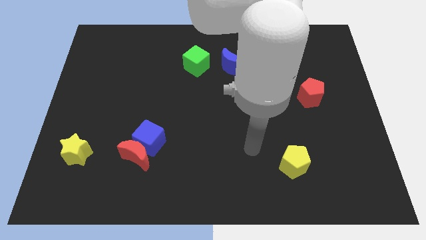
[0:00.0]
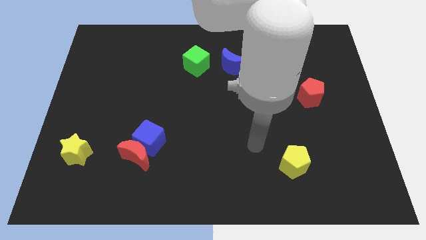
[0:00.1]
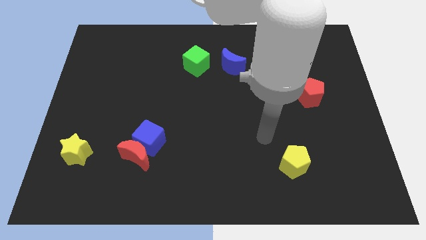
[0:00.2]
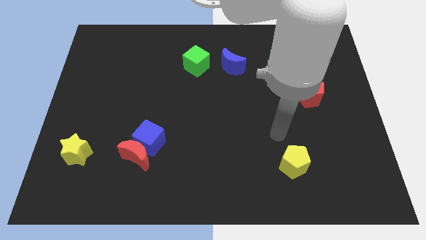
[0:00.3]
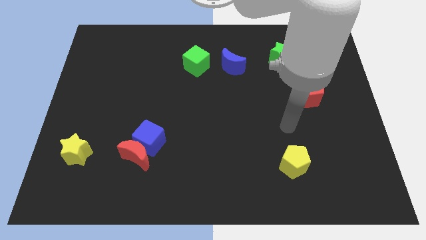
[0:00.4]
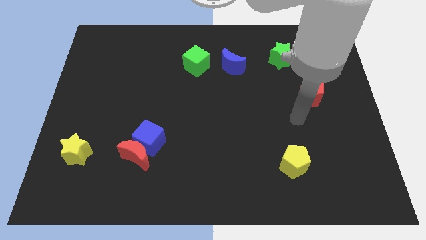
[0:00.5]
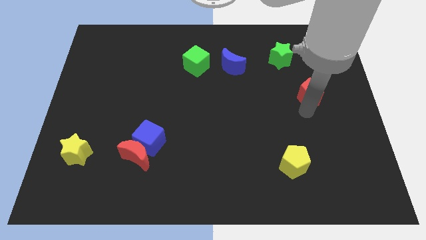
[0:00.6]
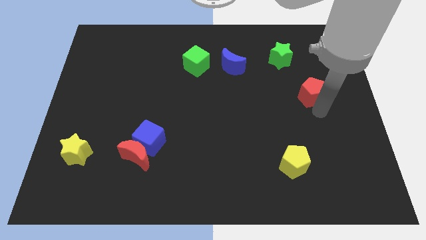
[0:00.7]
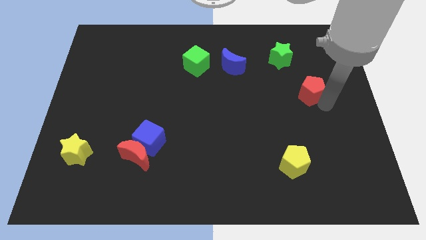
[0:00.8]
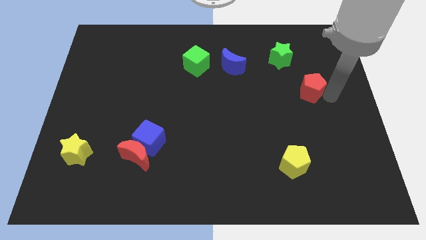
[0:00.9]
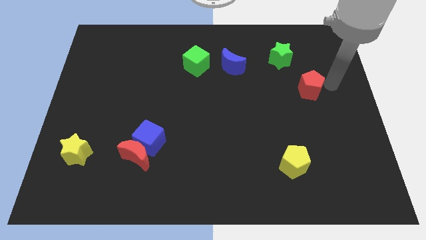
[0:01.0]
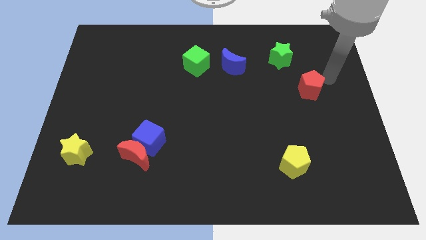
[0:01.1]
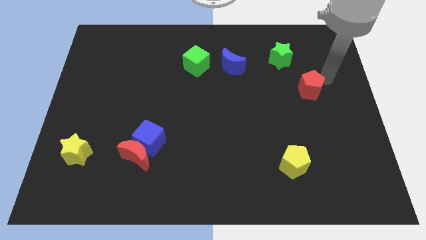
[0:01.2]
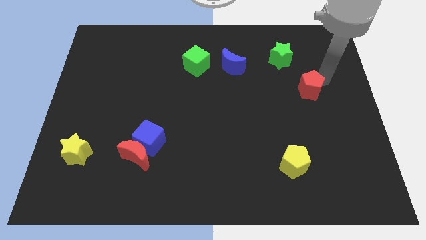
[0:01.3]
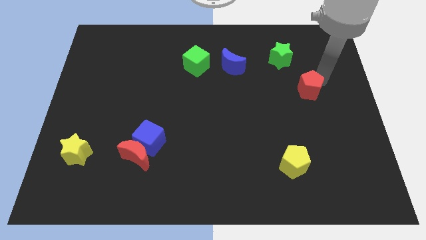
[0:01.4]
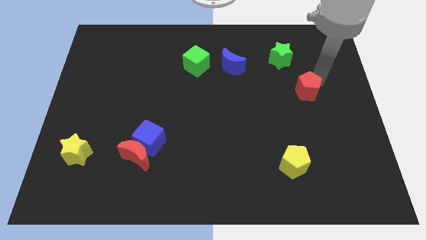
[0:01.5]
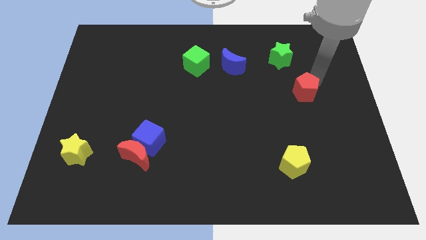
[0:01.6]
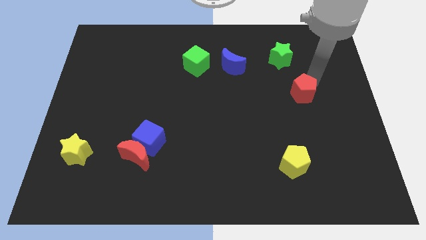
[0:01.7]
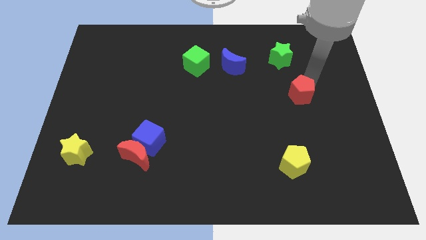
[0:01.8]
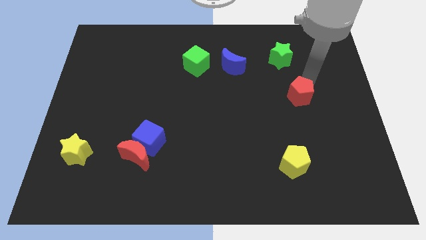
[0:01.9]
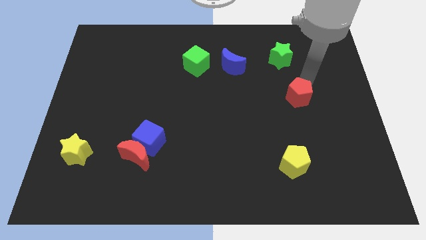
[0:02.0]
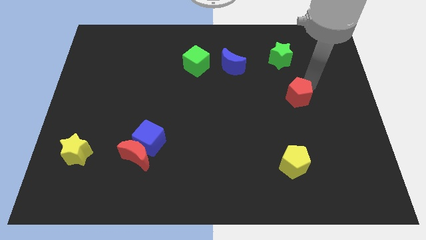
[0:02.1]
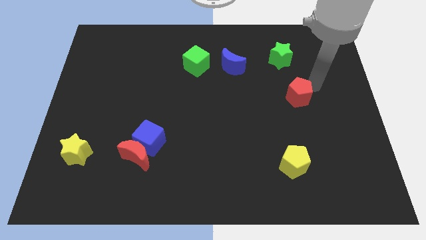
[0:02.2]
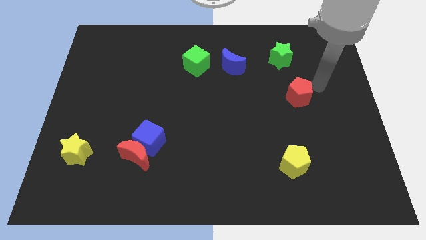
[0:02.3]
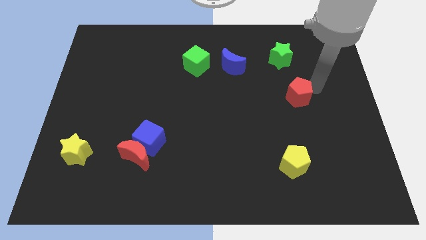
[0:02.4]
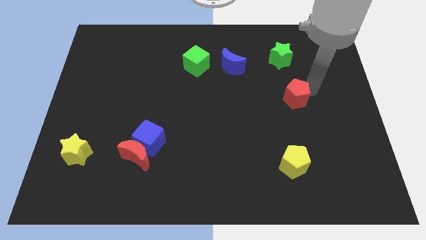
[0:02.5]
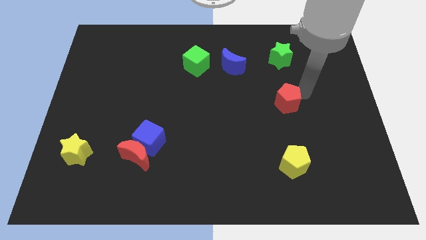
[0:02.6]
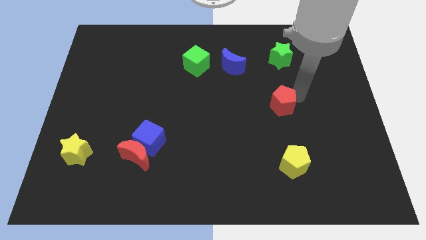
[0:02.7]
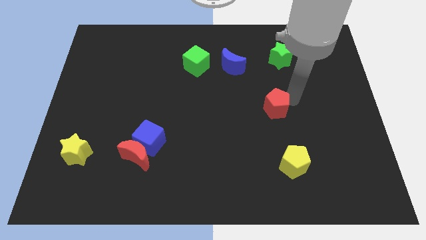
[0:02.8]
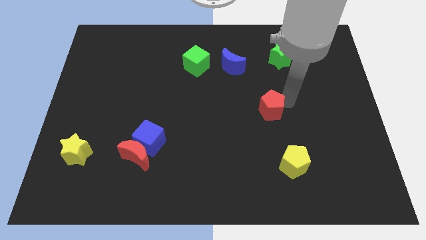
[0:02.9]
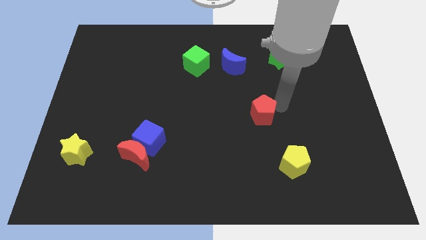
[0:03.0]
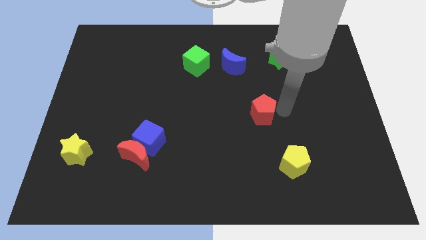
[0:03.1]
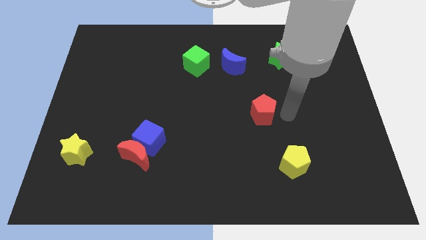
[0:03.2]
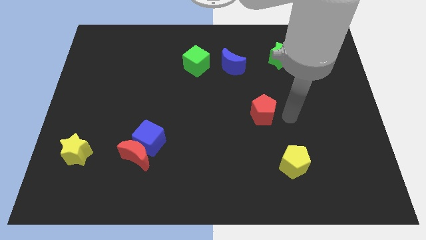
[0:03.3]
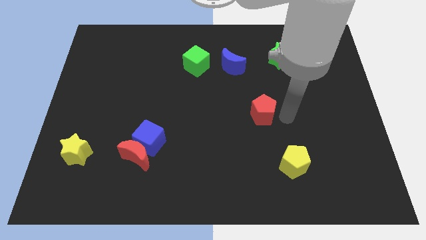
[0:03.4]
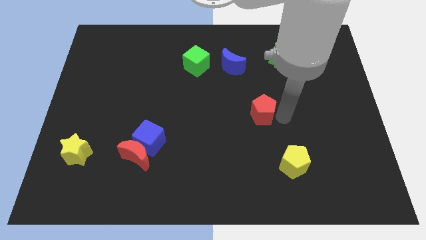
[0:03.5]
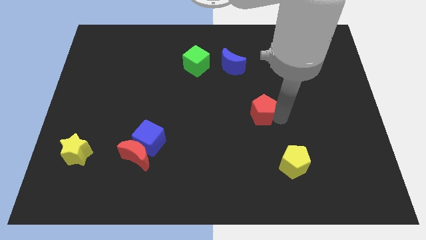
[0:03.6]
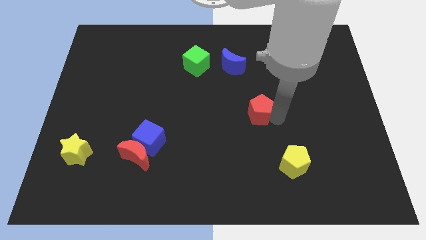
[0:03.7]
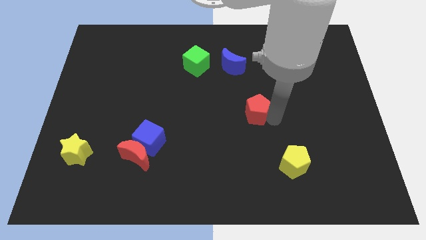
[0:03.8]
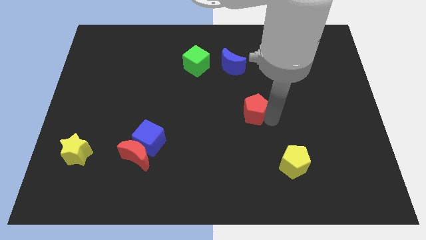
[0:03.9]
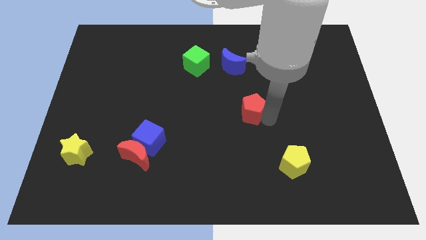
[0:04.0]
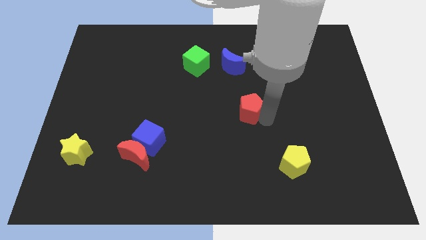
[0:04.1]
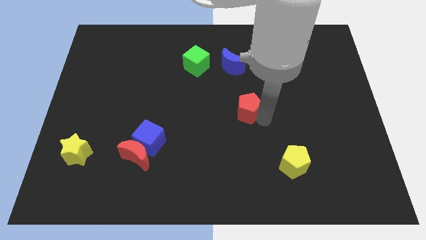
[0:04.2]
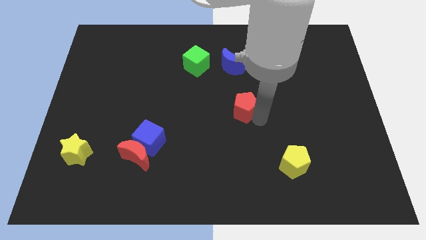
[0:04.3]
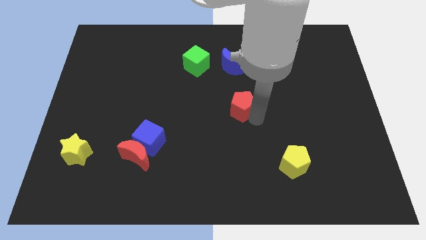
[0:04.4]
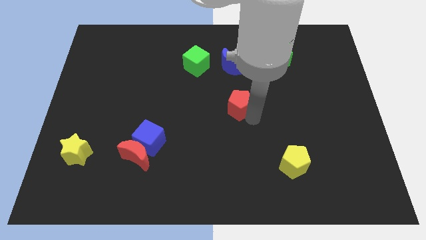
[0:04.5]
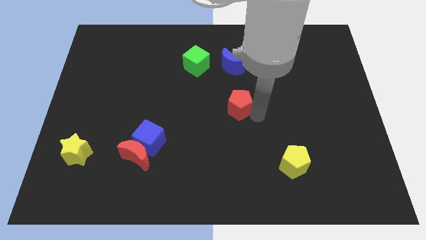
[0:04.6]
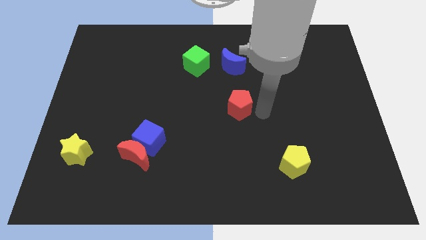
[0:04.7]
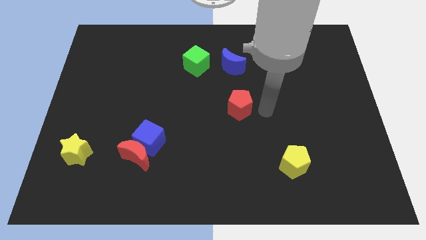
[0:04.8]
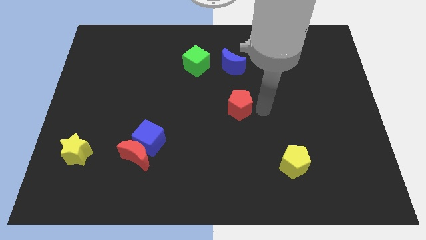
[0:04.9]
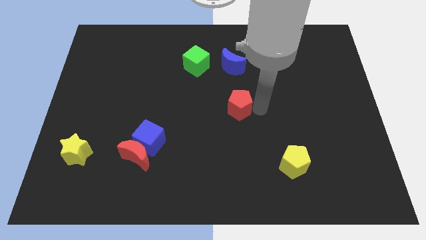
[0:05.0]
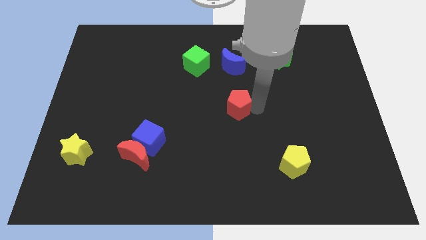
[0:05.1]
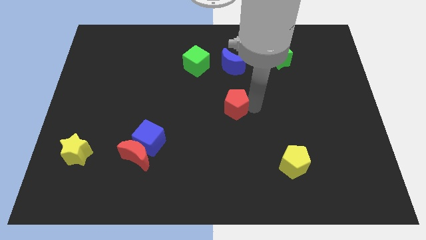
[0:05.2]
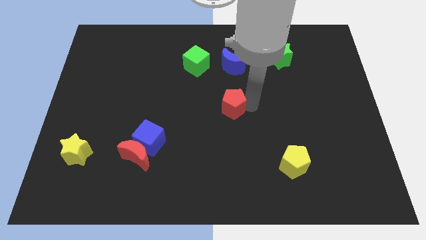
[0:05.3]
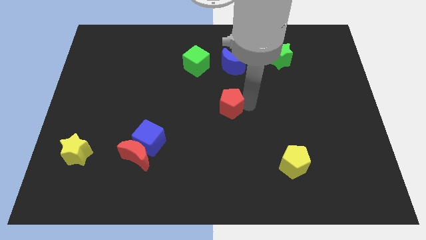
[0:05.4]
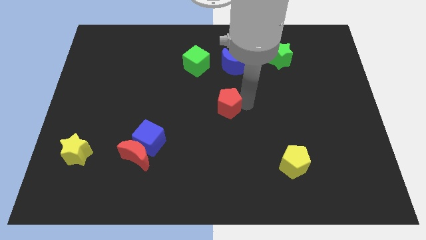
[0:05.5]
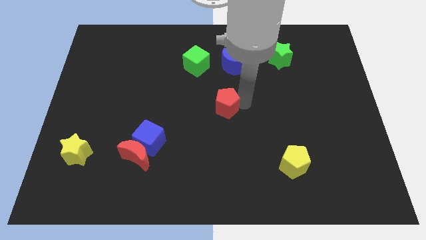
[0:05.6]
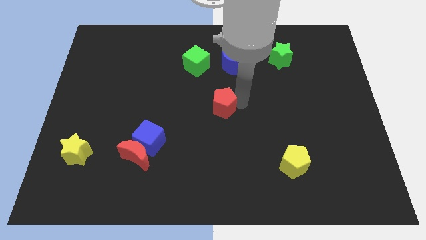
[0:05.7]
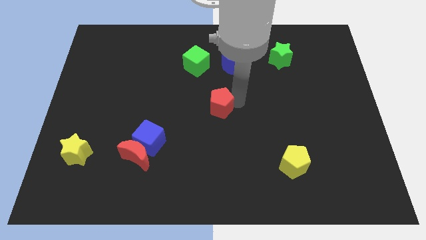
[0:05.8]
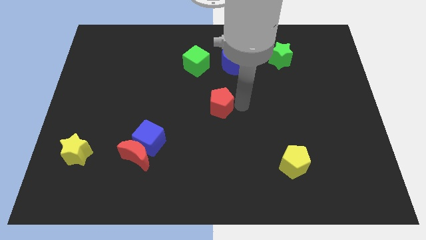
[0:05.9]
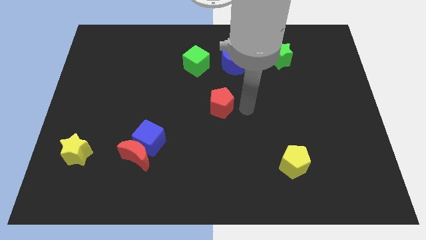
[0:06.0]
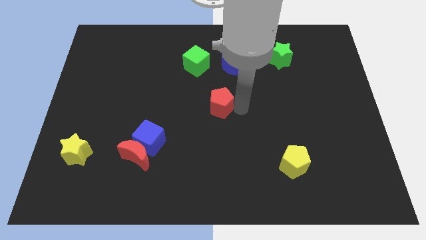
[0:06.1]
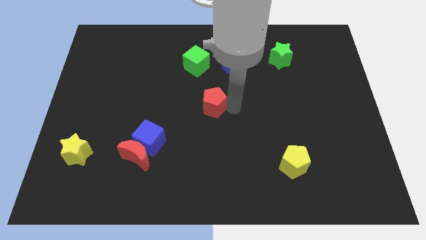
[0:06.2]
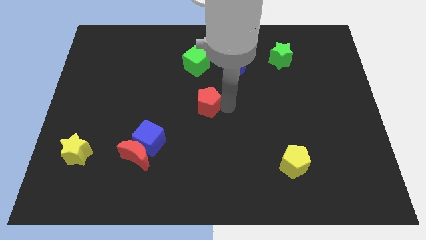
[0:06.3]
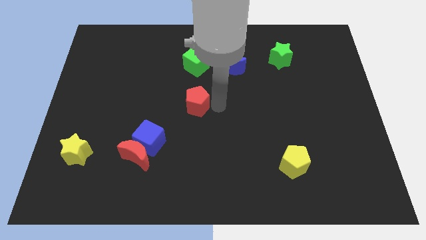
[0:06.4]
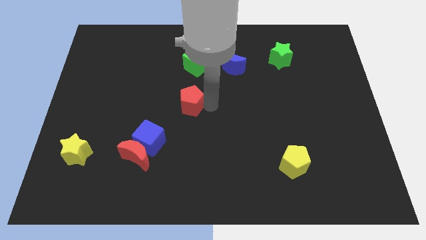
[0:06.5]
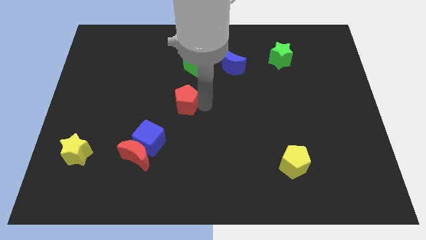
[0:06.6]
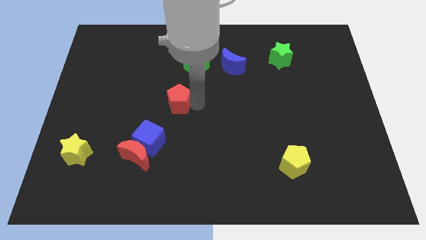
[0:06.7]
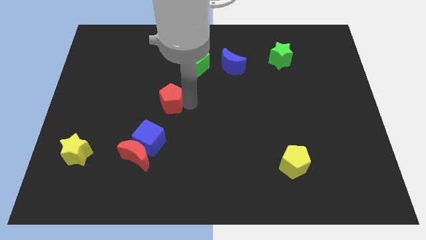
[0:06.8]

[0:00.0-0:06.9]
slide the red pentagon to the top of the blue cube
